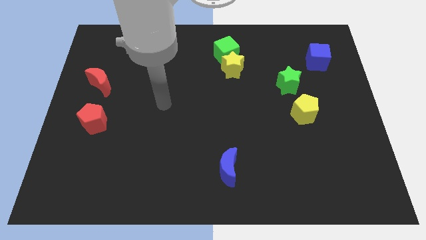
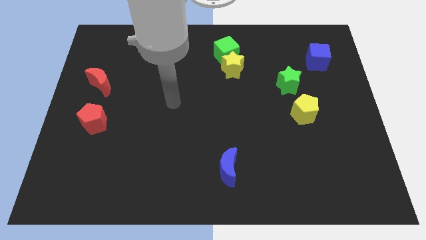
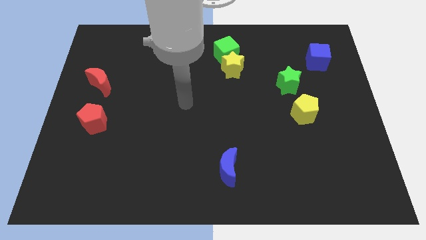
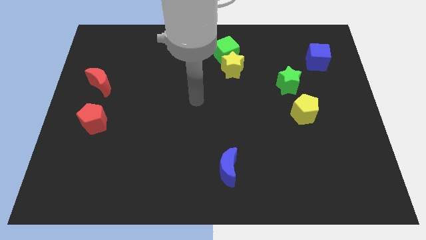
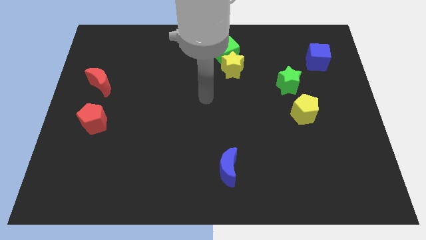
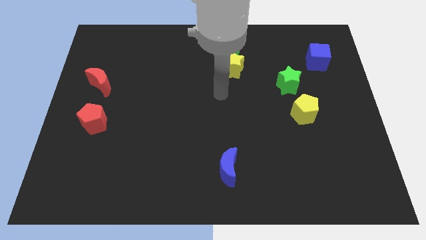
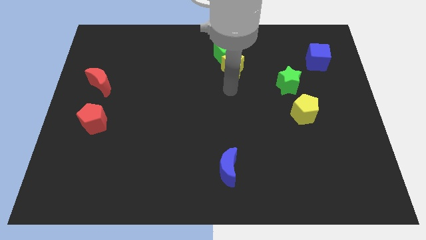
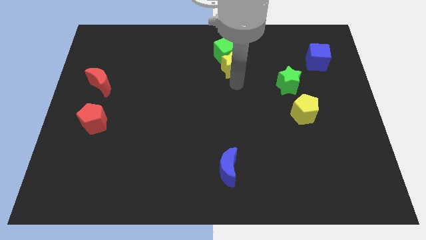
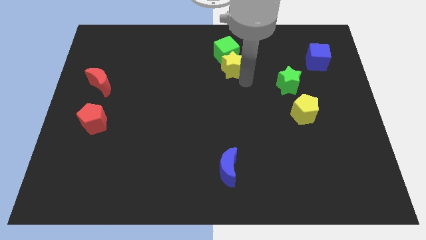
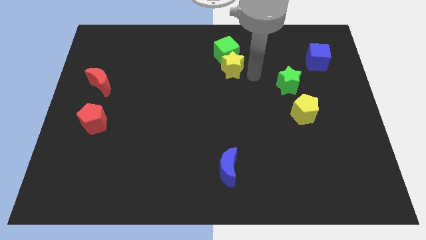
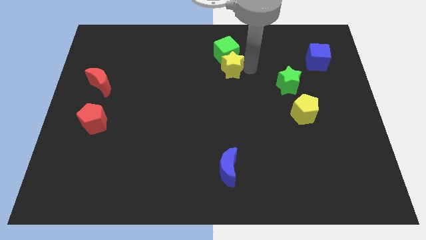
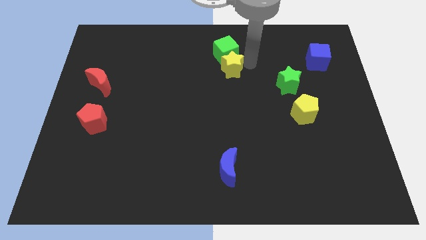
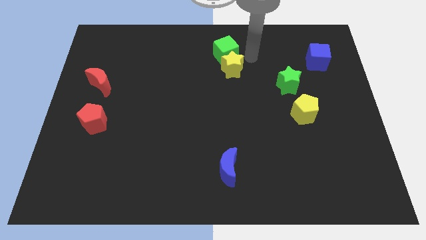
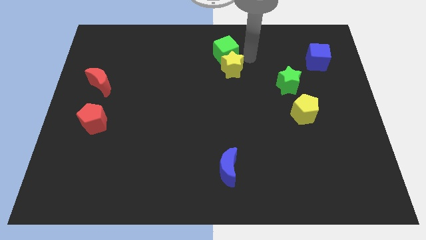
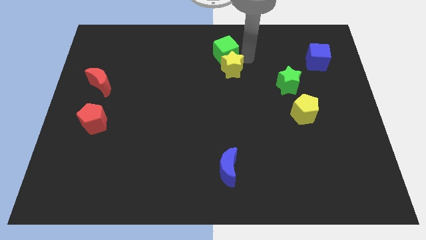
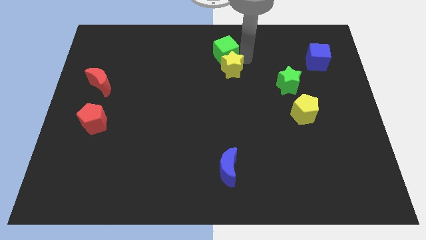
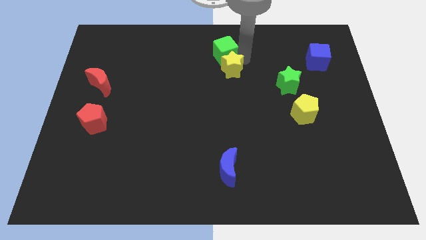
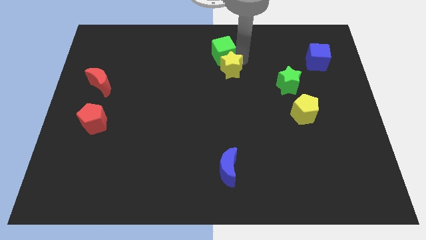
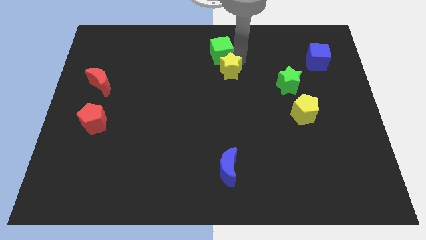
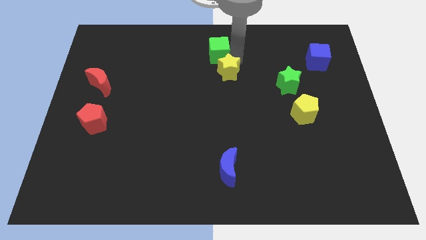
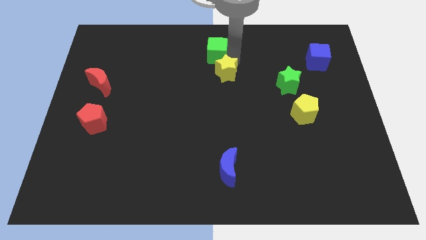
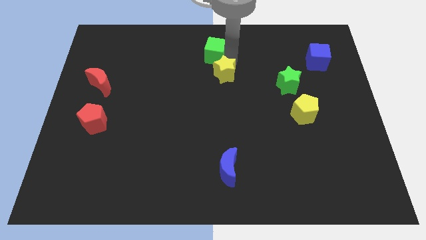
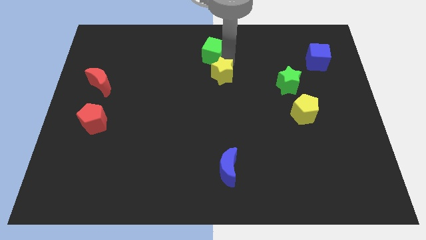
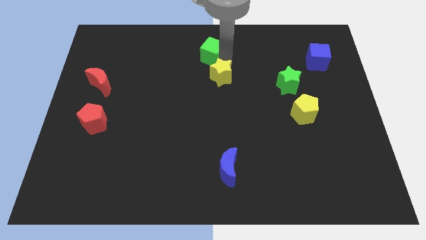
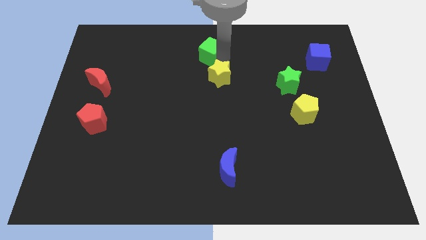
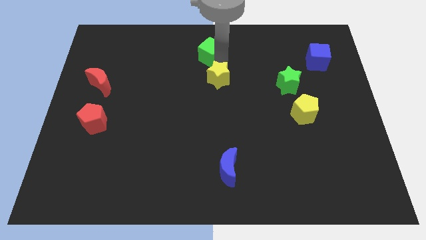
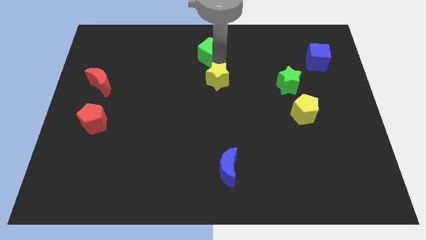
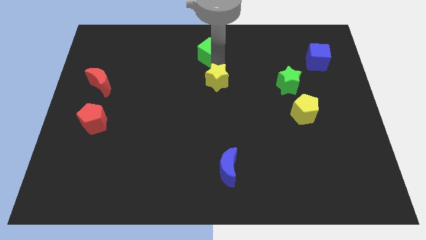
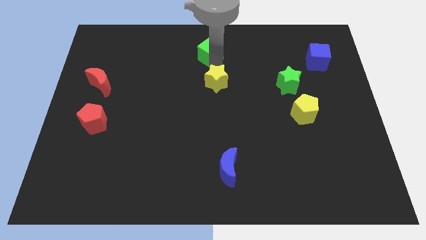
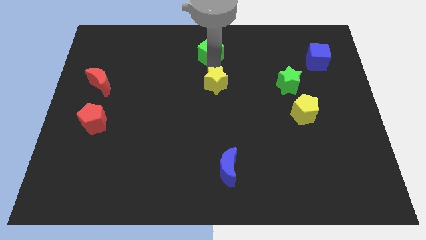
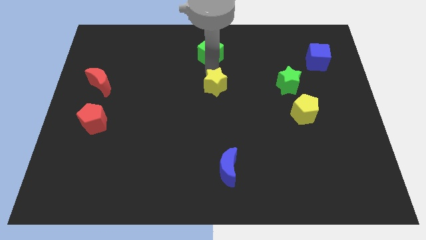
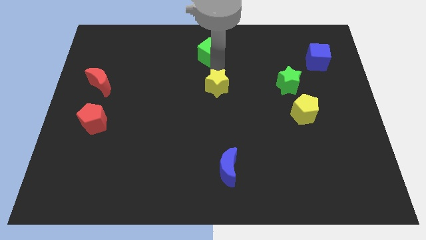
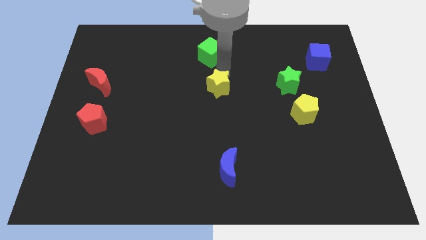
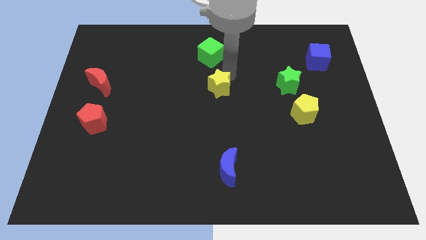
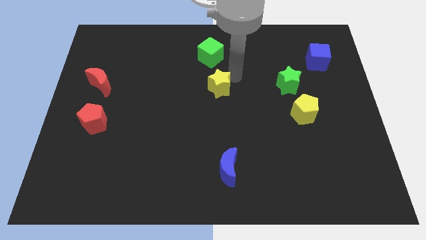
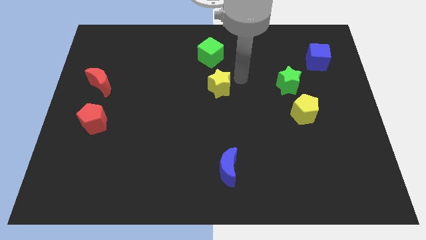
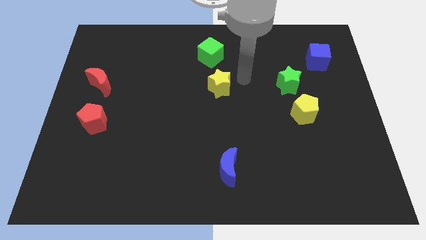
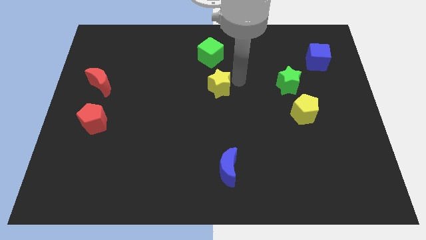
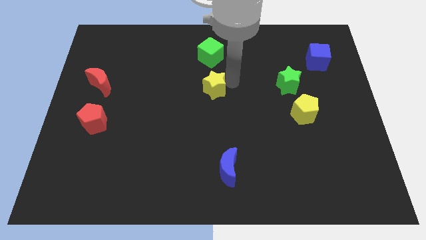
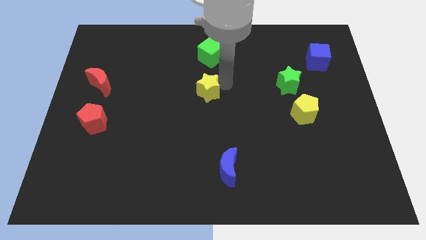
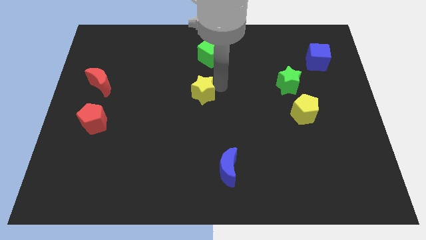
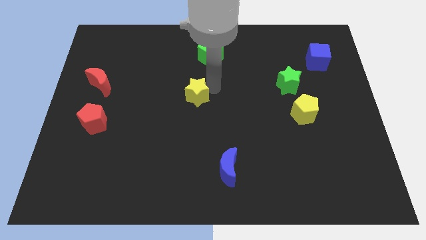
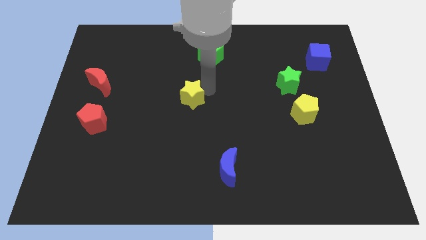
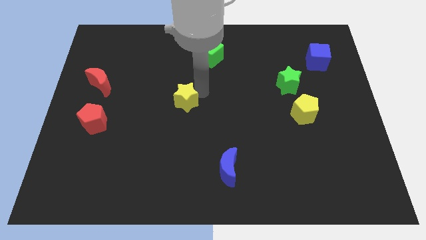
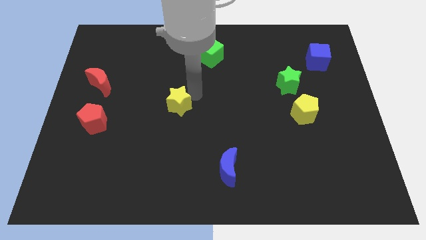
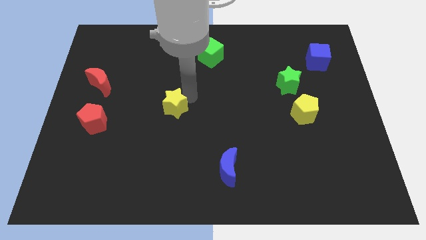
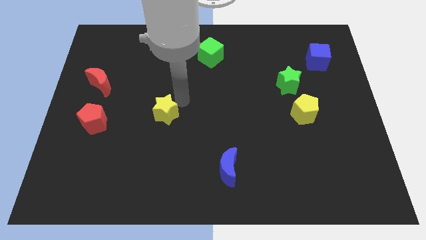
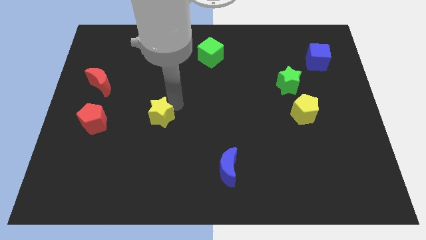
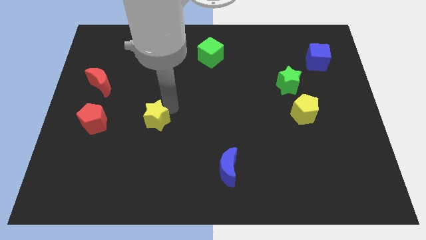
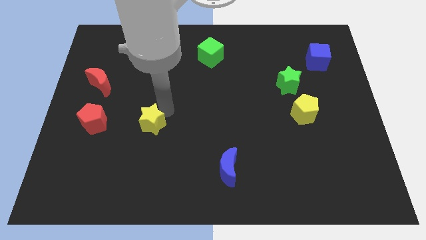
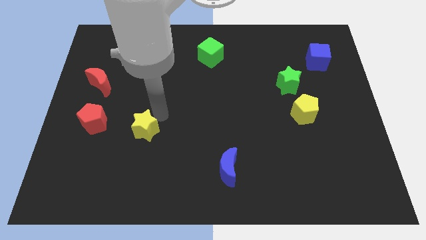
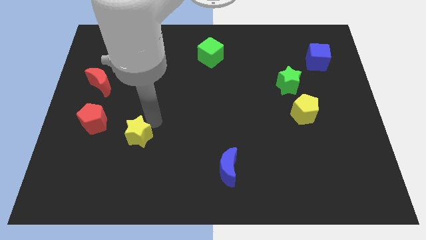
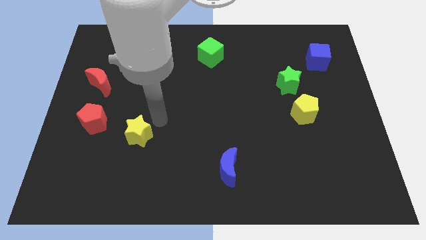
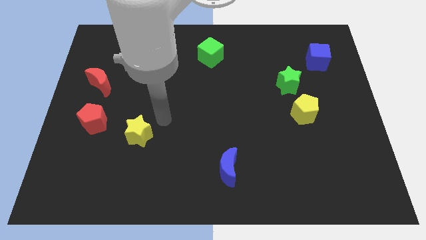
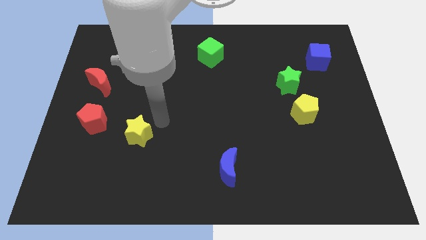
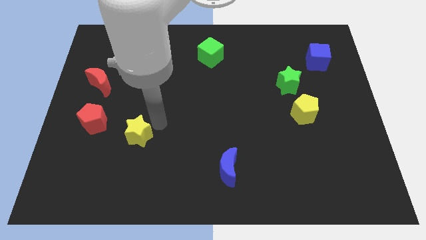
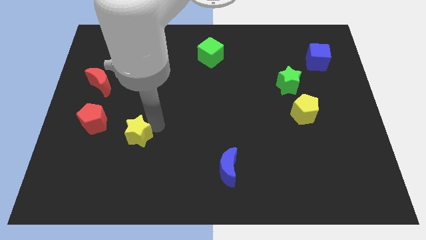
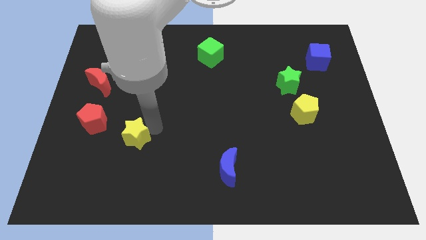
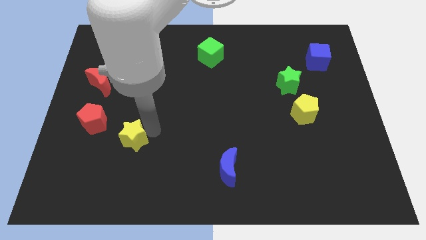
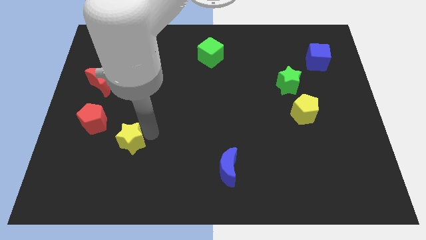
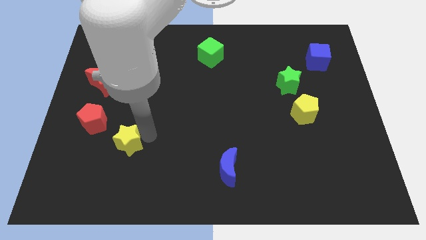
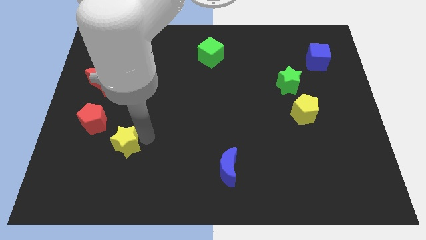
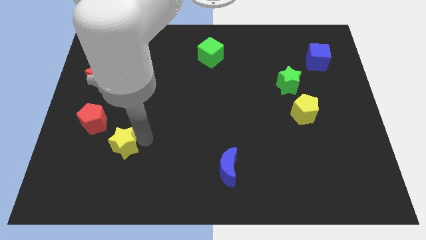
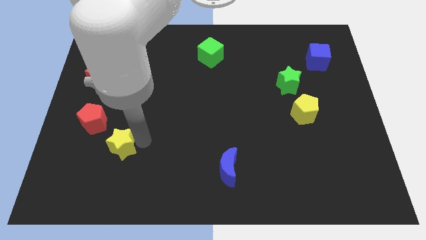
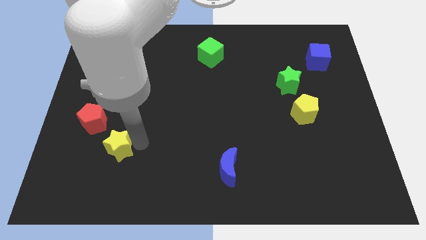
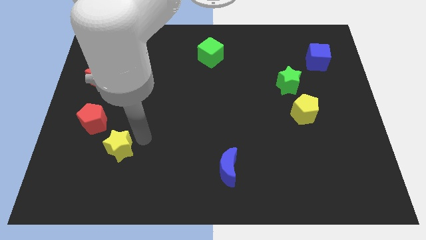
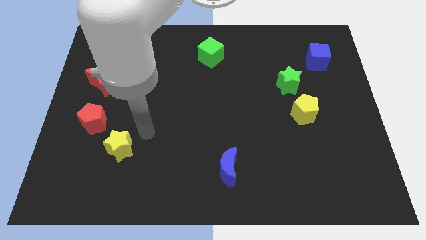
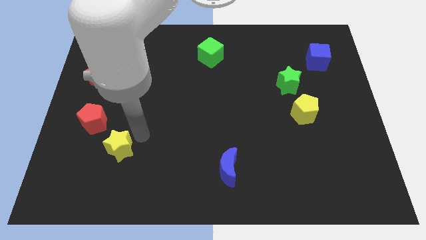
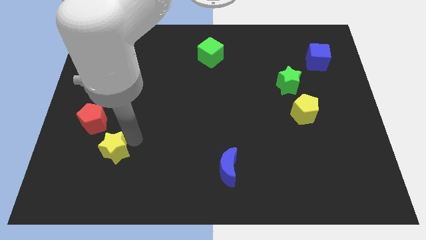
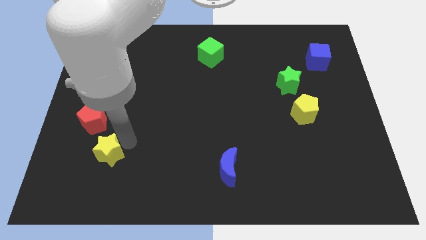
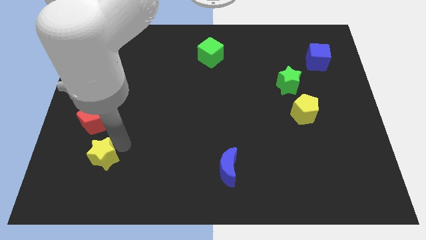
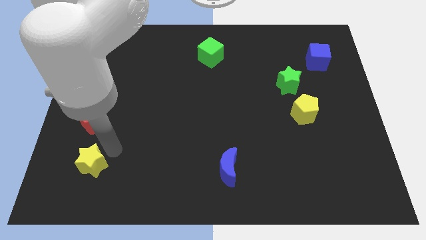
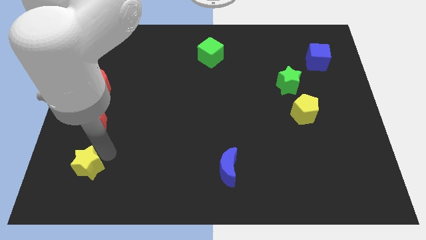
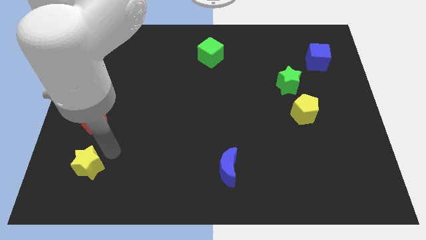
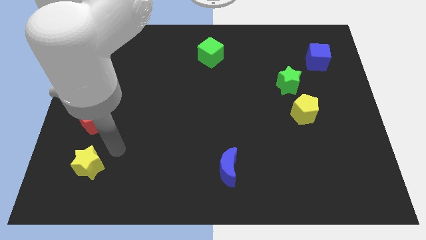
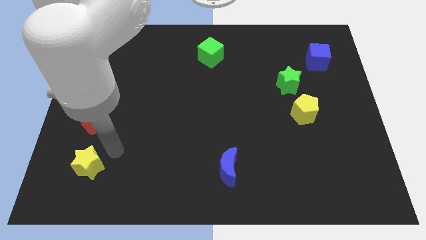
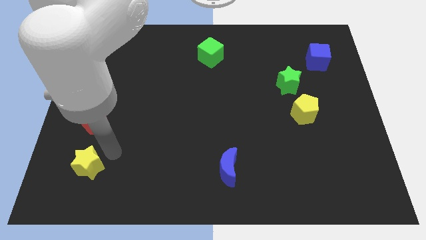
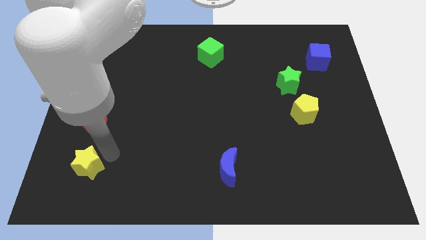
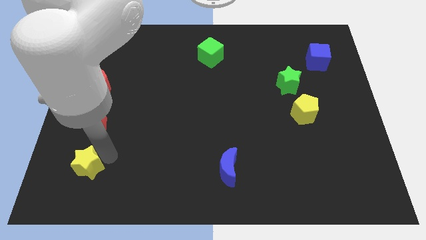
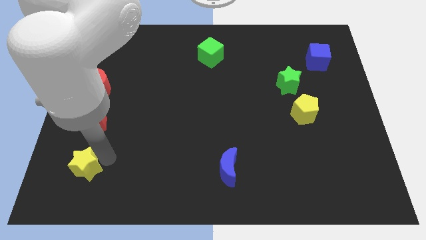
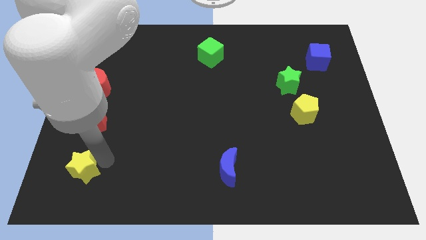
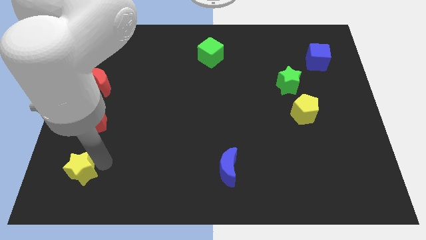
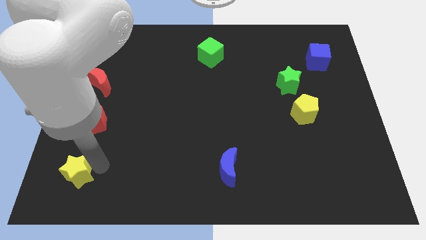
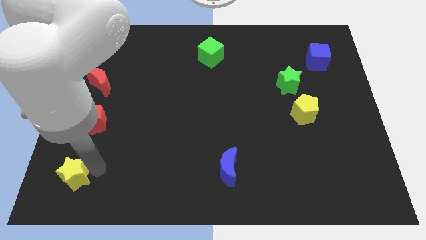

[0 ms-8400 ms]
slide the yellow star to the bottom left
